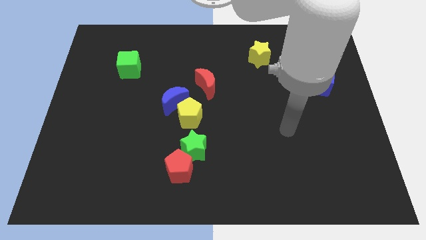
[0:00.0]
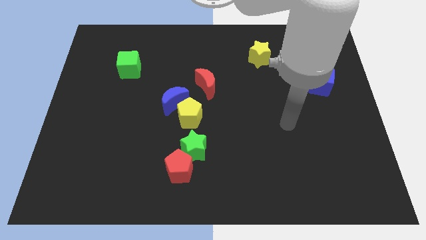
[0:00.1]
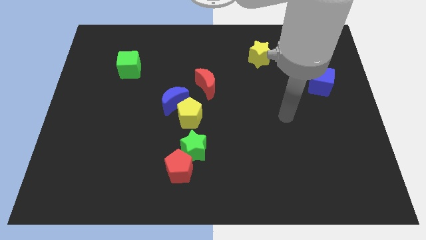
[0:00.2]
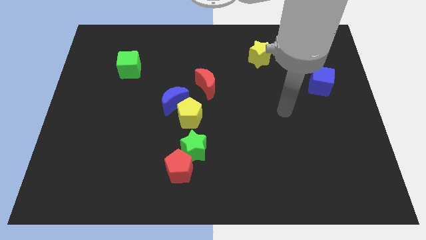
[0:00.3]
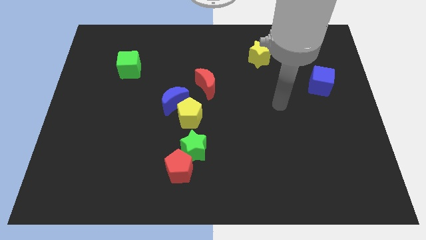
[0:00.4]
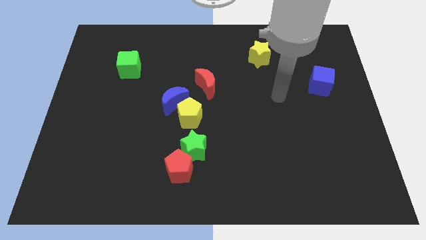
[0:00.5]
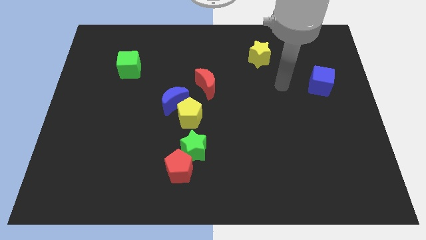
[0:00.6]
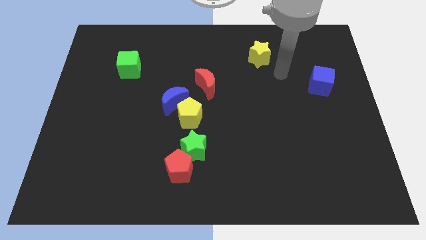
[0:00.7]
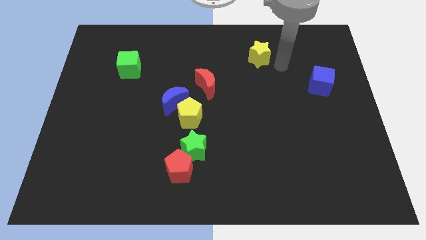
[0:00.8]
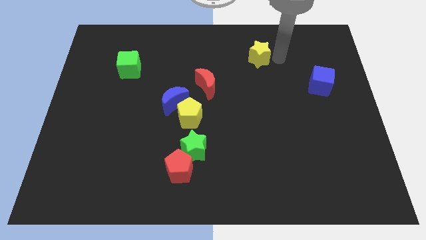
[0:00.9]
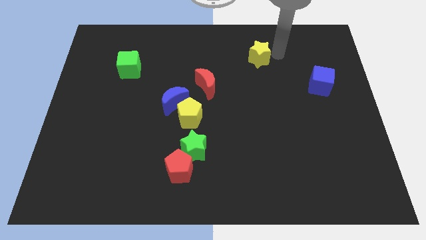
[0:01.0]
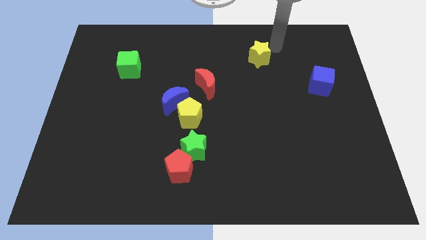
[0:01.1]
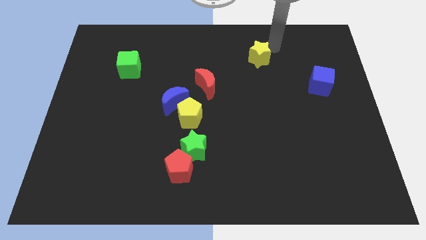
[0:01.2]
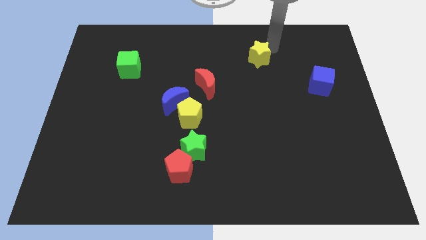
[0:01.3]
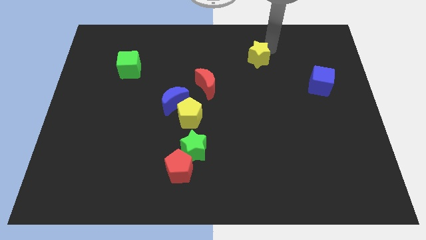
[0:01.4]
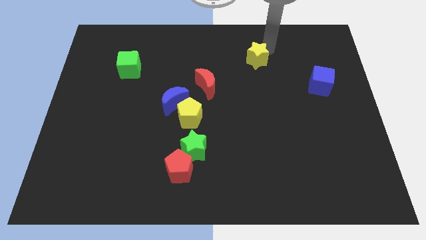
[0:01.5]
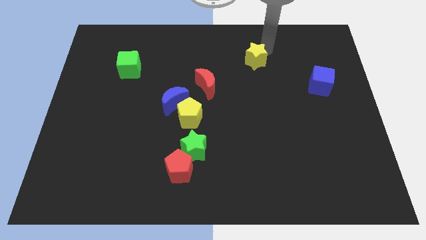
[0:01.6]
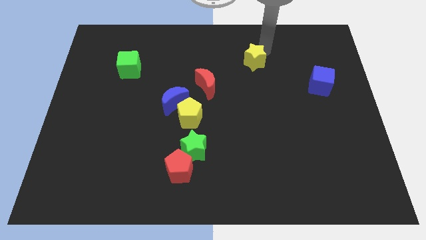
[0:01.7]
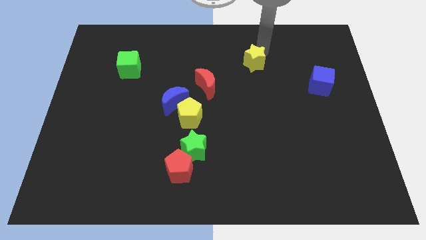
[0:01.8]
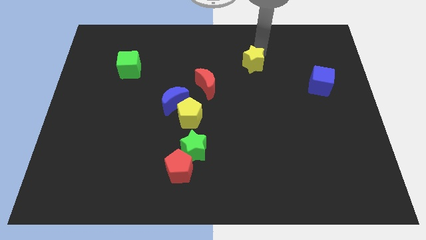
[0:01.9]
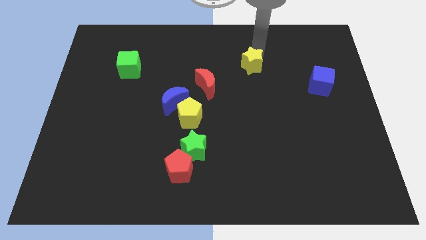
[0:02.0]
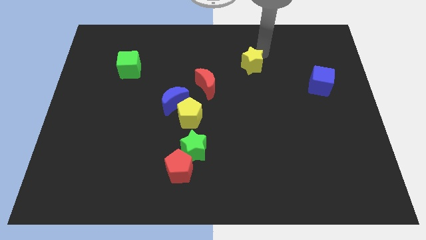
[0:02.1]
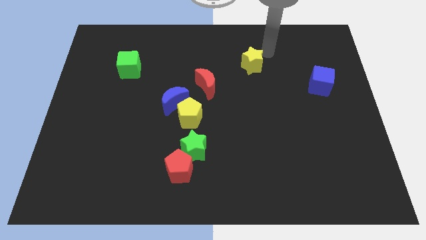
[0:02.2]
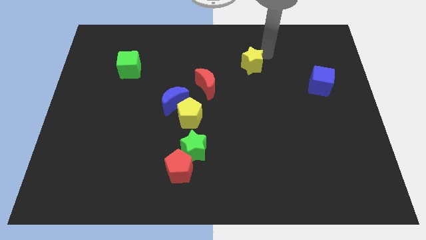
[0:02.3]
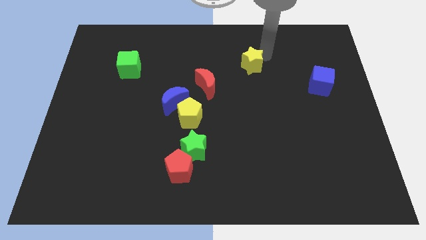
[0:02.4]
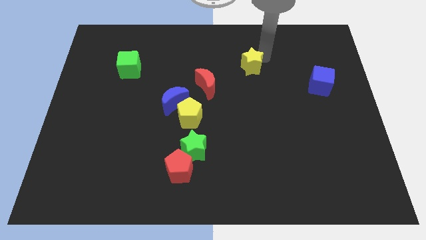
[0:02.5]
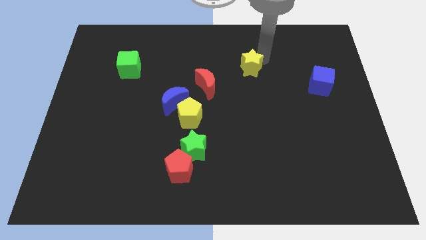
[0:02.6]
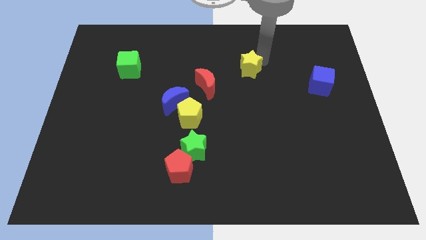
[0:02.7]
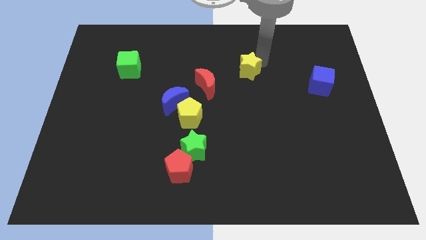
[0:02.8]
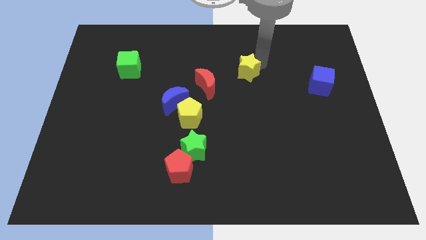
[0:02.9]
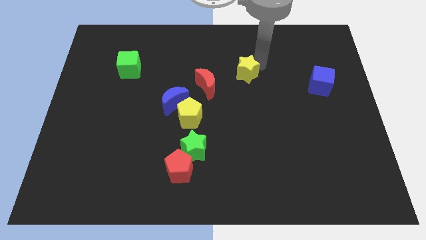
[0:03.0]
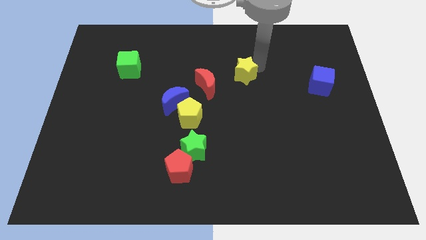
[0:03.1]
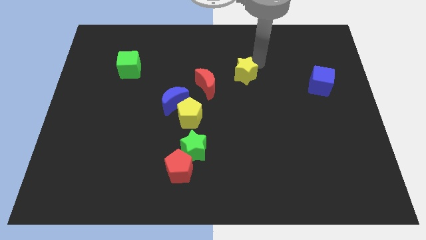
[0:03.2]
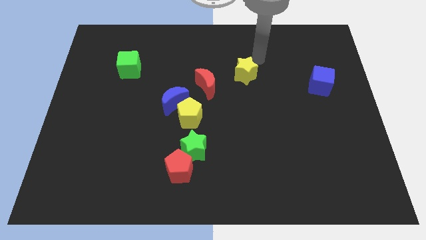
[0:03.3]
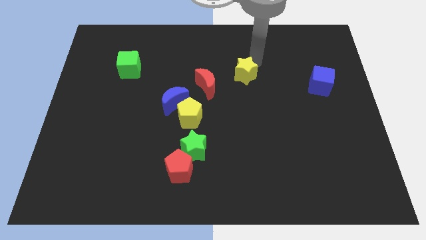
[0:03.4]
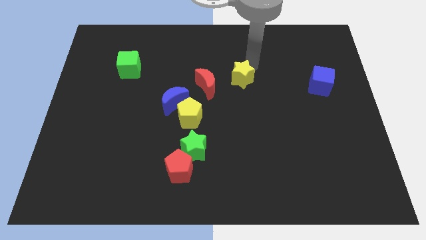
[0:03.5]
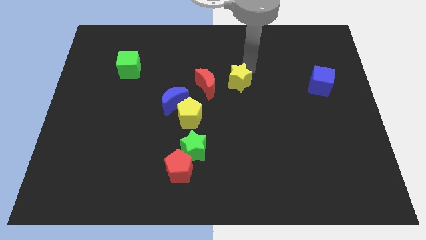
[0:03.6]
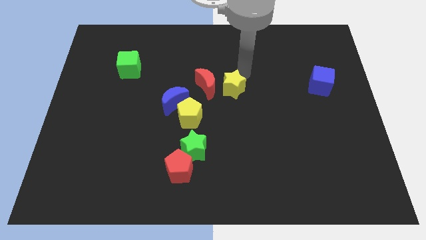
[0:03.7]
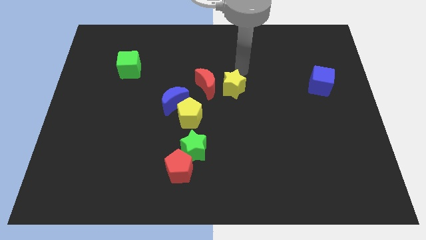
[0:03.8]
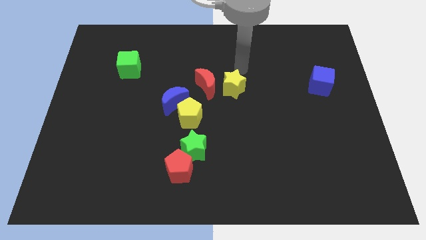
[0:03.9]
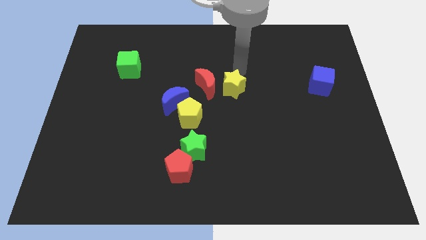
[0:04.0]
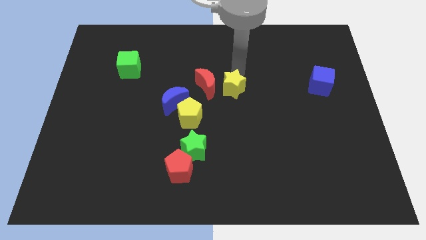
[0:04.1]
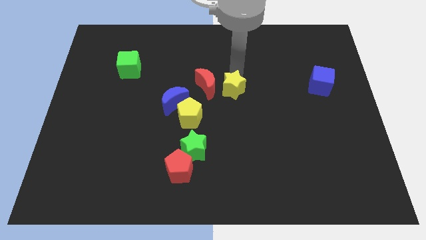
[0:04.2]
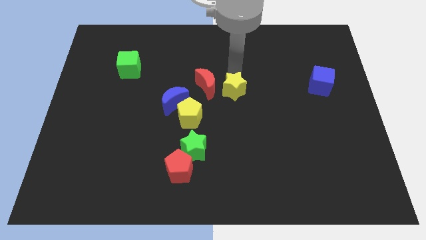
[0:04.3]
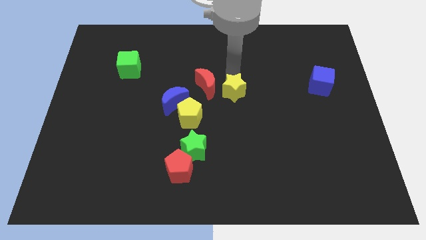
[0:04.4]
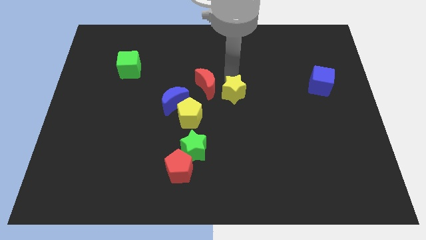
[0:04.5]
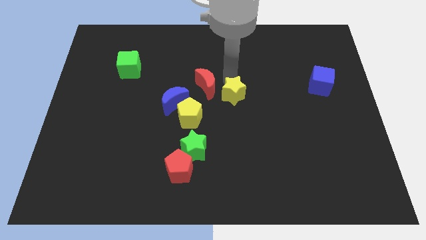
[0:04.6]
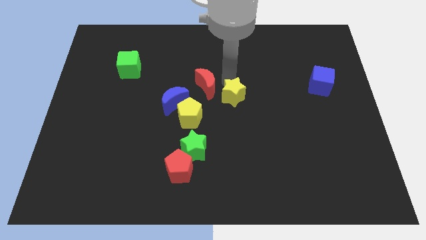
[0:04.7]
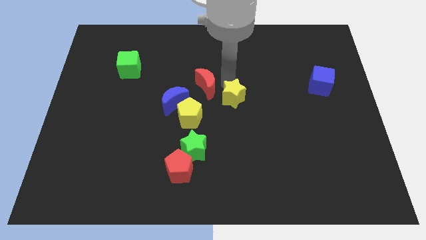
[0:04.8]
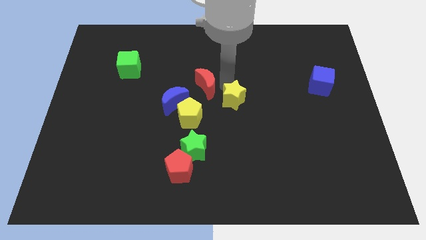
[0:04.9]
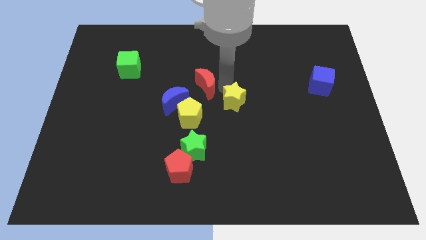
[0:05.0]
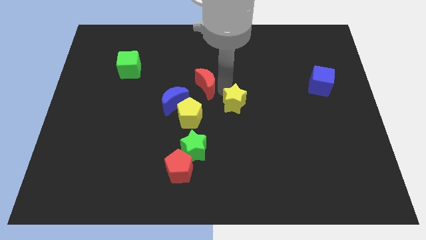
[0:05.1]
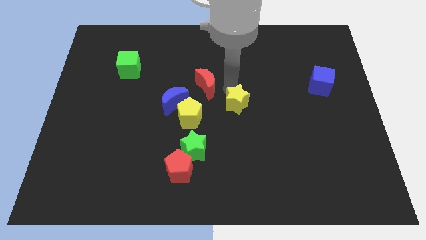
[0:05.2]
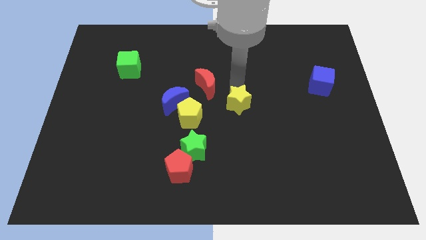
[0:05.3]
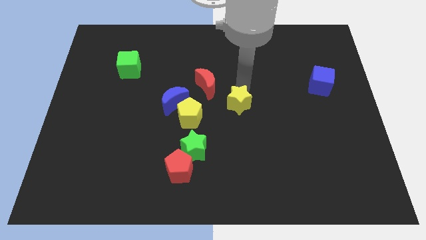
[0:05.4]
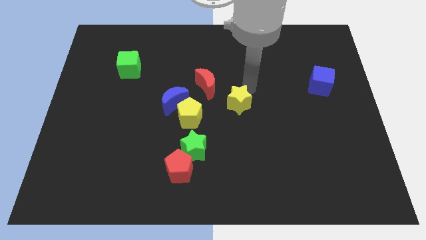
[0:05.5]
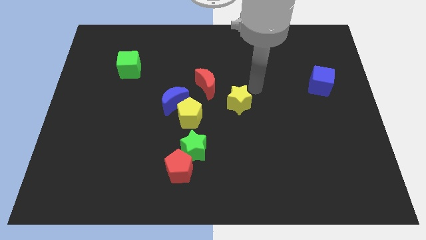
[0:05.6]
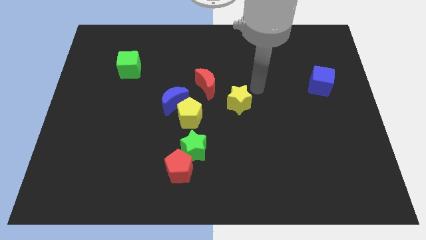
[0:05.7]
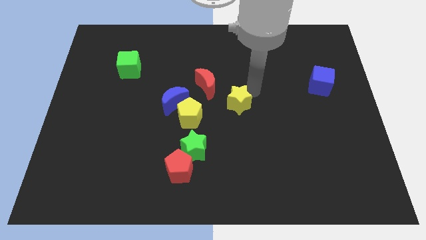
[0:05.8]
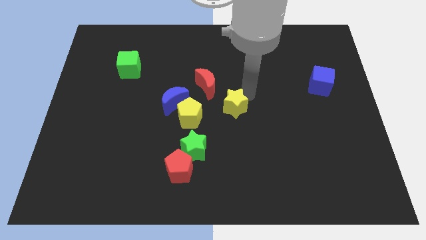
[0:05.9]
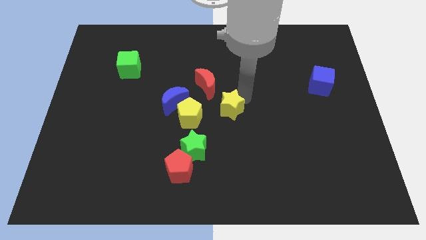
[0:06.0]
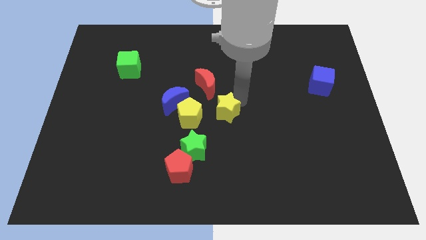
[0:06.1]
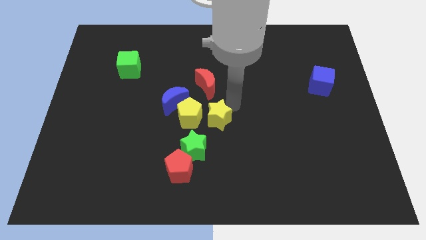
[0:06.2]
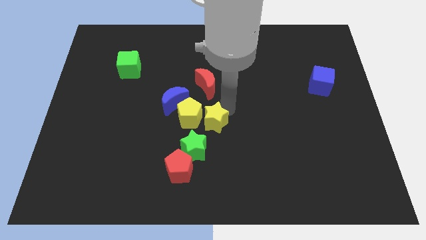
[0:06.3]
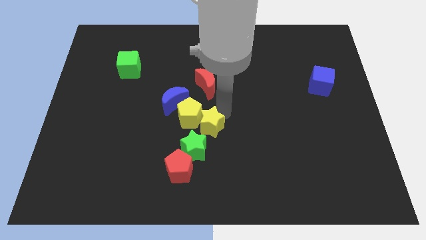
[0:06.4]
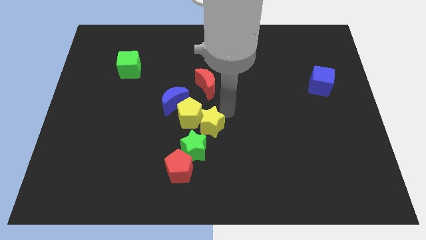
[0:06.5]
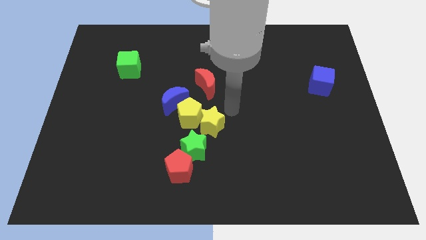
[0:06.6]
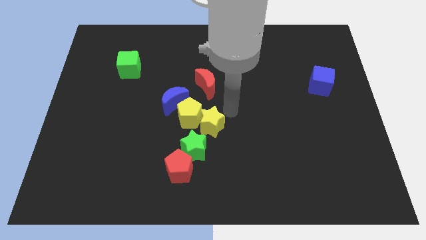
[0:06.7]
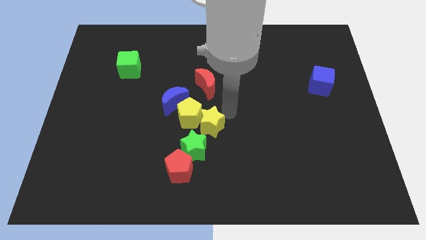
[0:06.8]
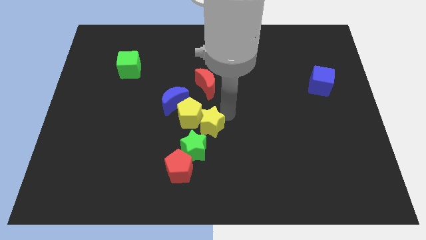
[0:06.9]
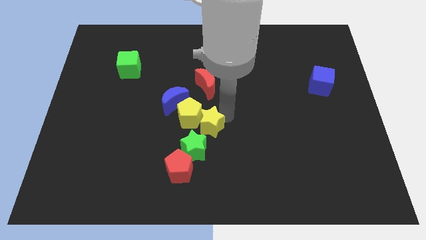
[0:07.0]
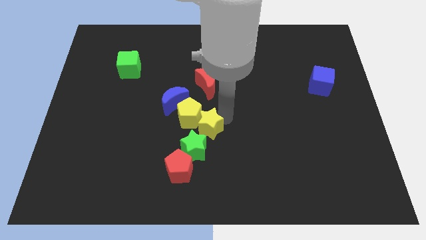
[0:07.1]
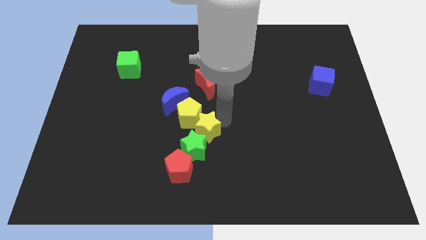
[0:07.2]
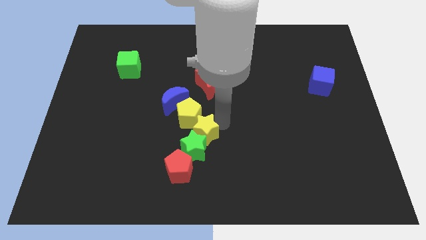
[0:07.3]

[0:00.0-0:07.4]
move the yellow star to the top left side of the green star
